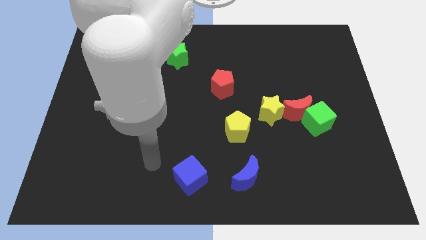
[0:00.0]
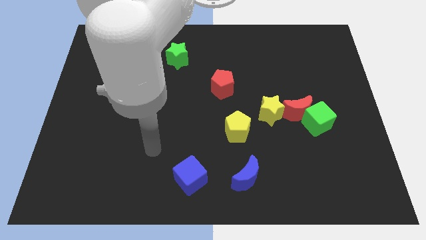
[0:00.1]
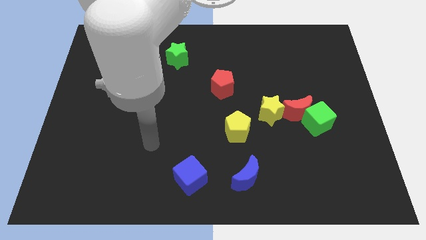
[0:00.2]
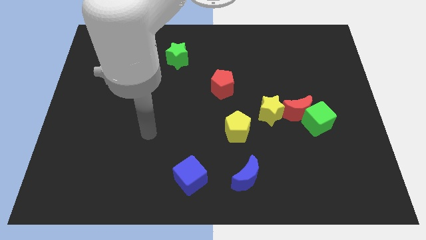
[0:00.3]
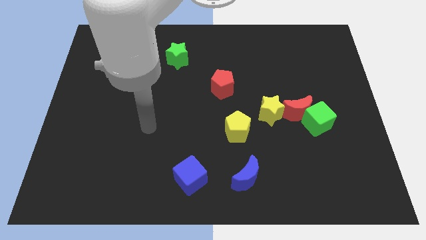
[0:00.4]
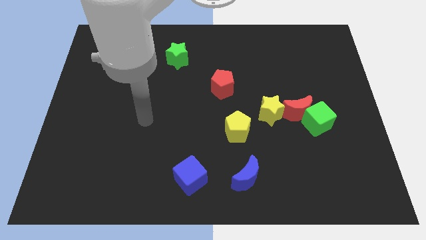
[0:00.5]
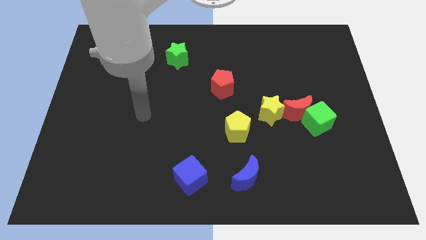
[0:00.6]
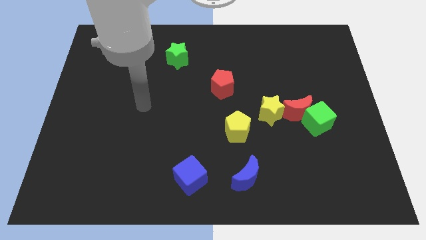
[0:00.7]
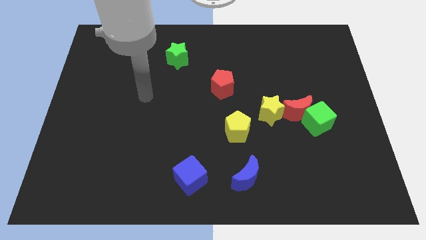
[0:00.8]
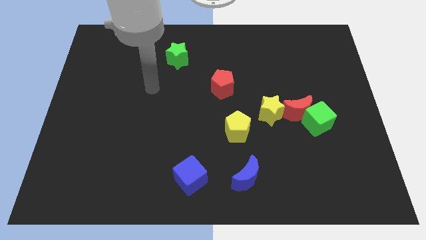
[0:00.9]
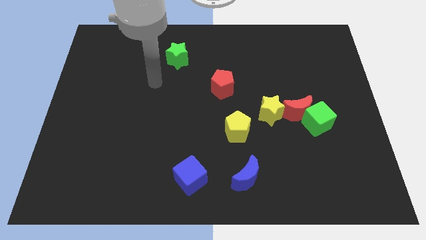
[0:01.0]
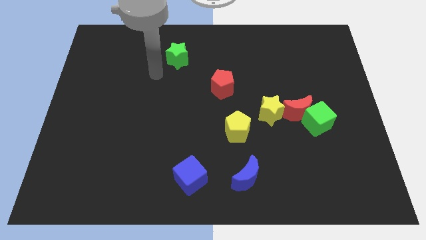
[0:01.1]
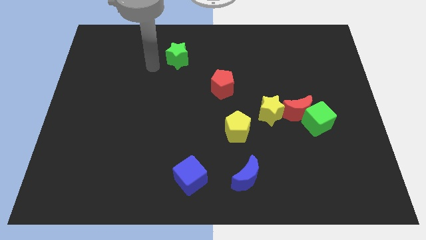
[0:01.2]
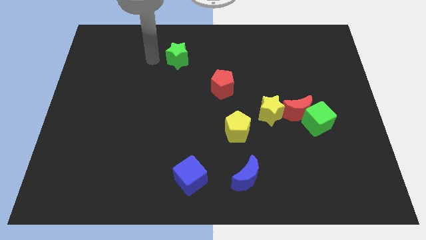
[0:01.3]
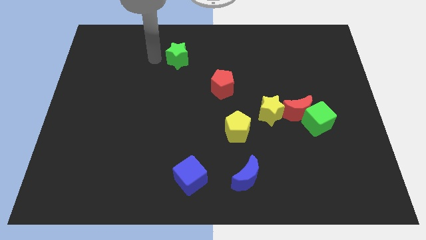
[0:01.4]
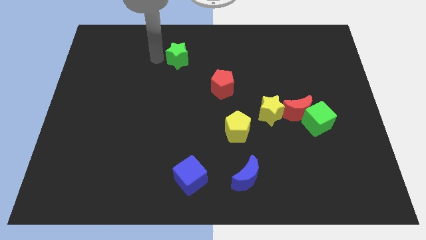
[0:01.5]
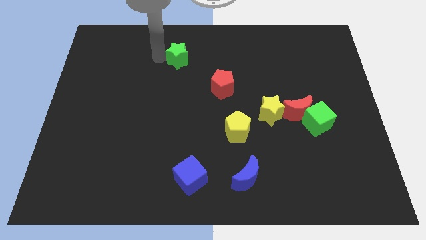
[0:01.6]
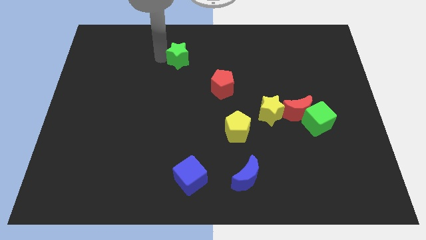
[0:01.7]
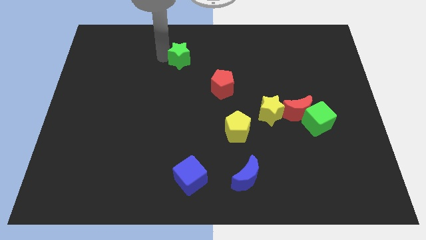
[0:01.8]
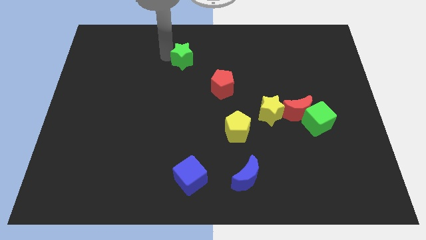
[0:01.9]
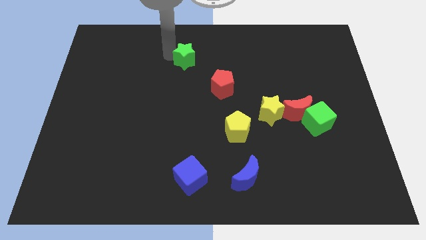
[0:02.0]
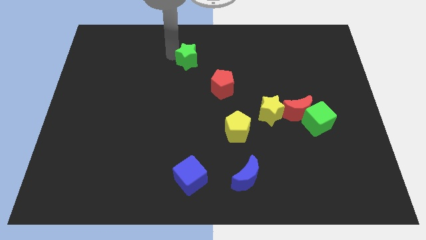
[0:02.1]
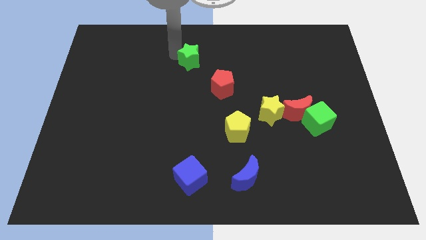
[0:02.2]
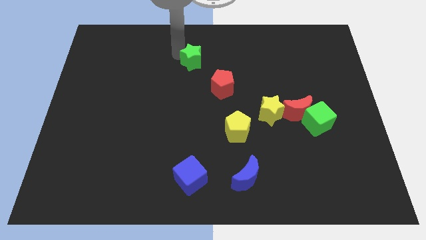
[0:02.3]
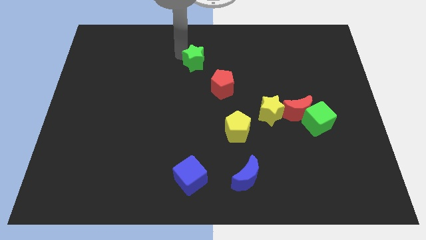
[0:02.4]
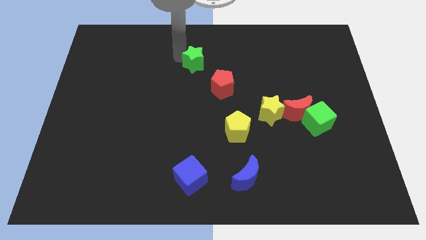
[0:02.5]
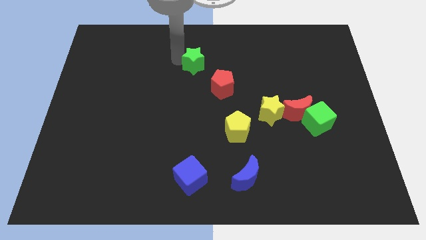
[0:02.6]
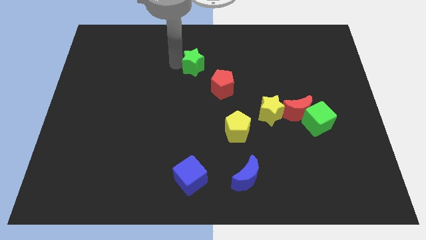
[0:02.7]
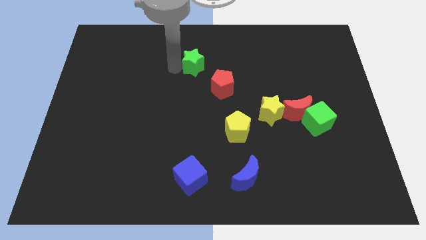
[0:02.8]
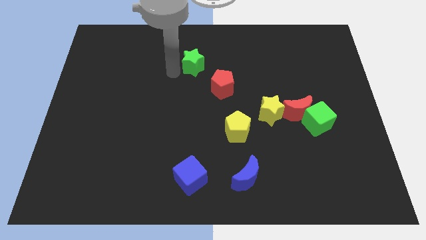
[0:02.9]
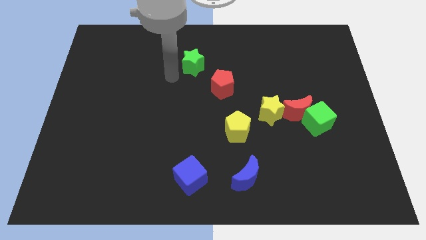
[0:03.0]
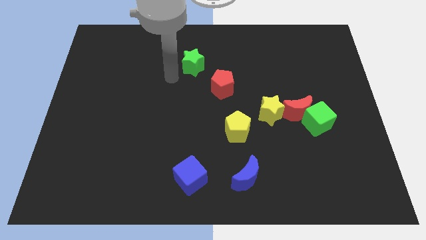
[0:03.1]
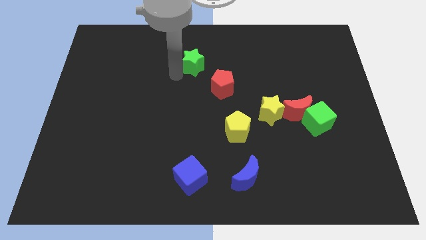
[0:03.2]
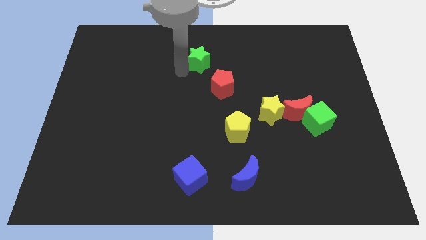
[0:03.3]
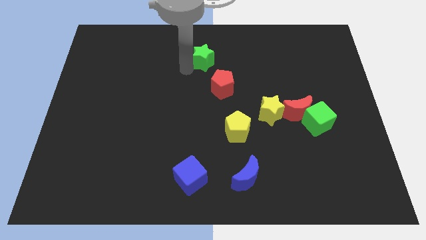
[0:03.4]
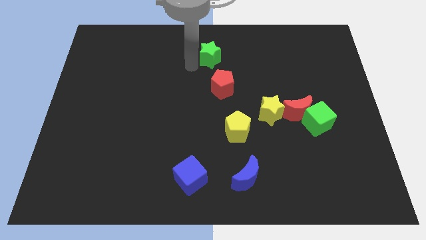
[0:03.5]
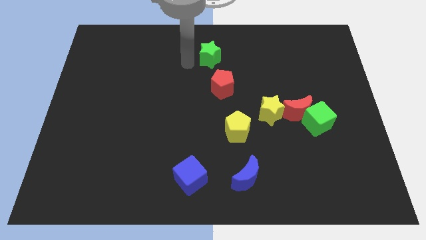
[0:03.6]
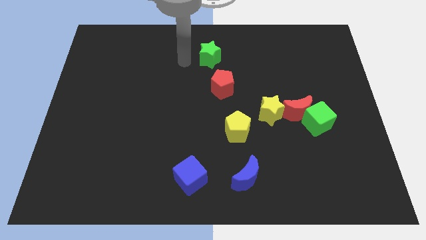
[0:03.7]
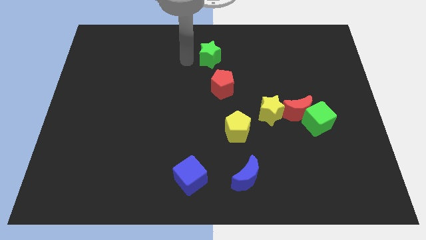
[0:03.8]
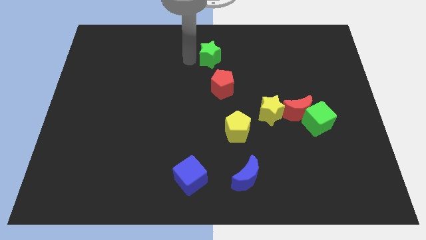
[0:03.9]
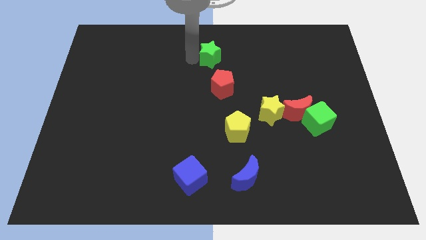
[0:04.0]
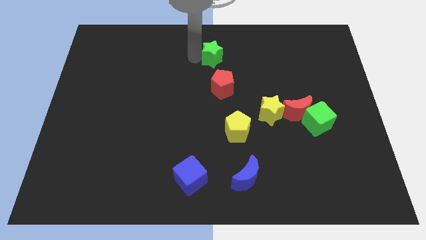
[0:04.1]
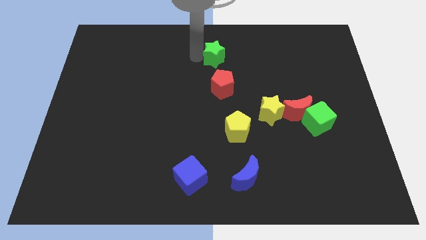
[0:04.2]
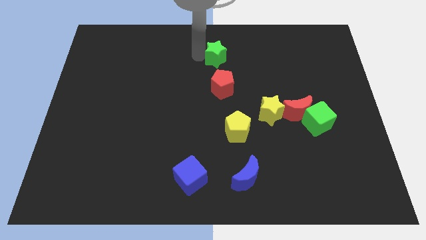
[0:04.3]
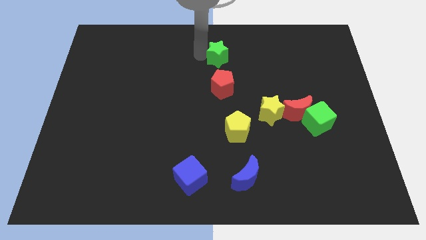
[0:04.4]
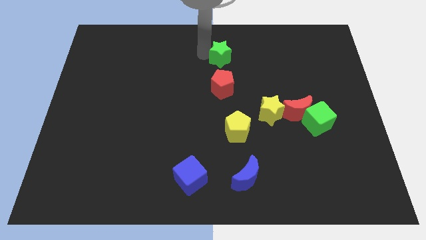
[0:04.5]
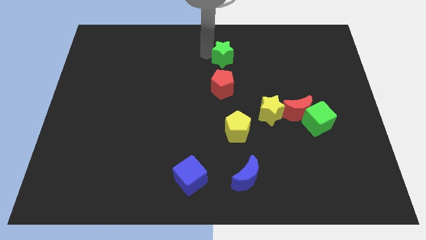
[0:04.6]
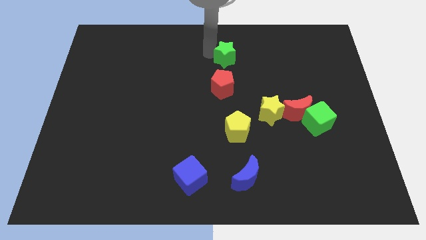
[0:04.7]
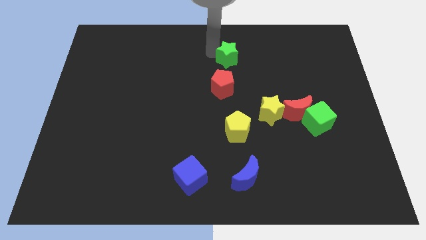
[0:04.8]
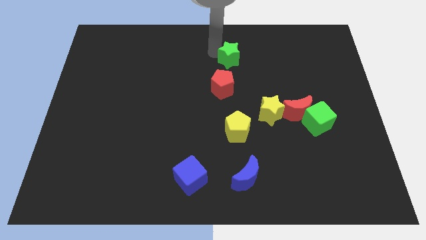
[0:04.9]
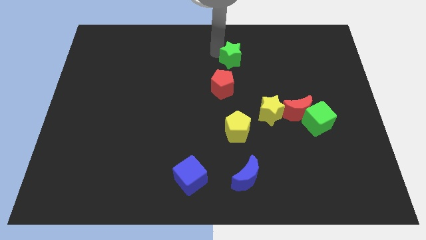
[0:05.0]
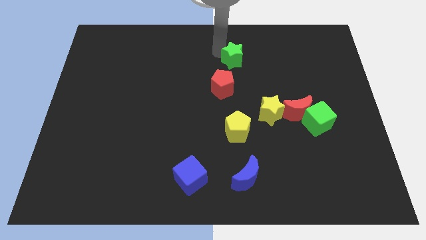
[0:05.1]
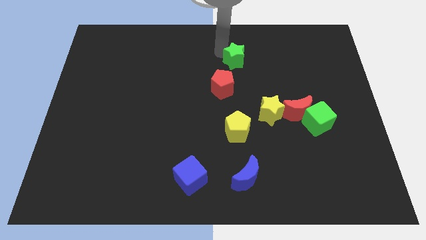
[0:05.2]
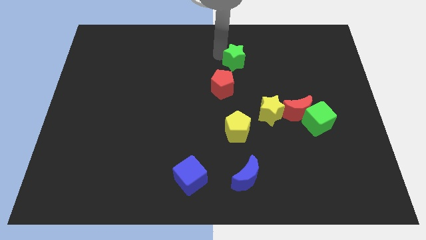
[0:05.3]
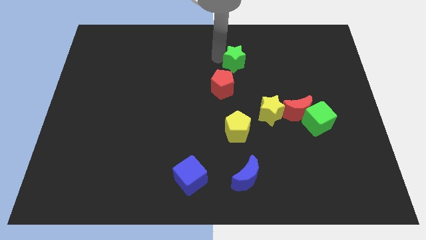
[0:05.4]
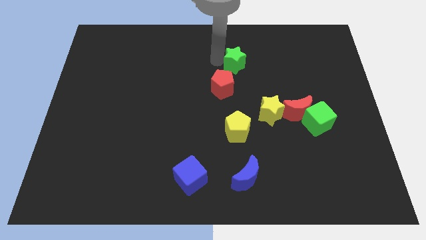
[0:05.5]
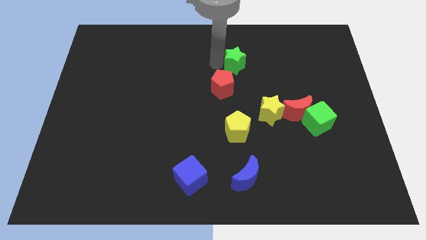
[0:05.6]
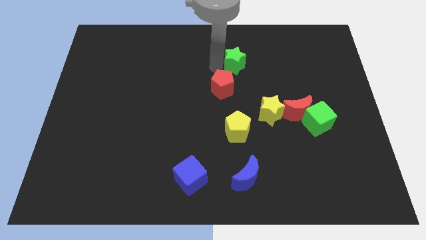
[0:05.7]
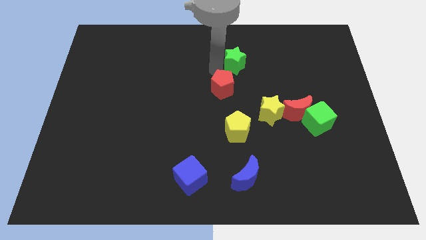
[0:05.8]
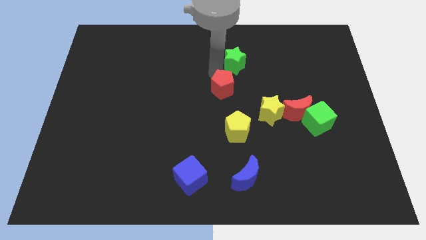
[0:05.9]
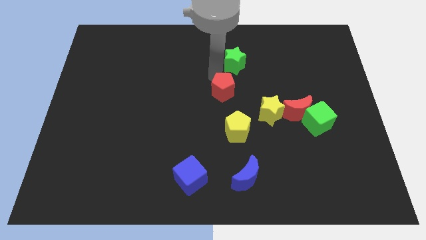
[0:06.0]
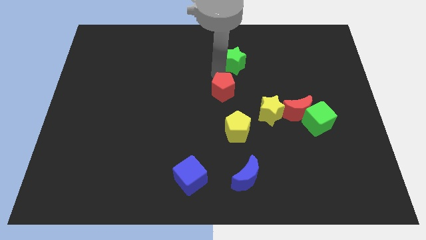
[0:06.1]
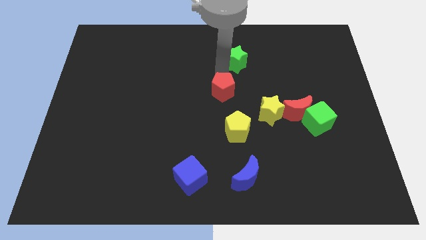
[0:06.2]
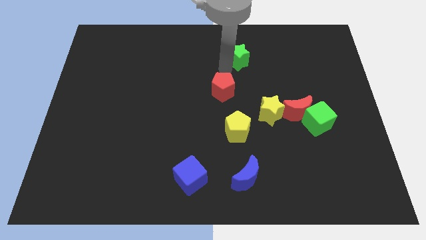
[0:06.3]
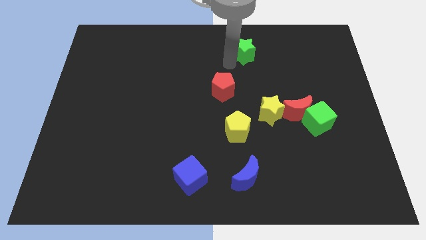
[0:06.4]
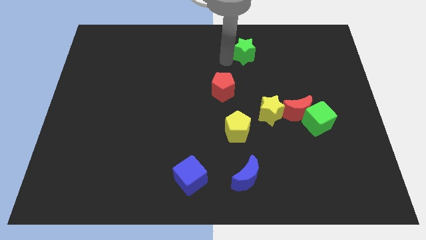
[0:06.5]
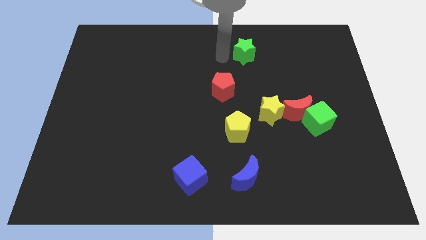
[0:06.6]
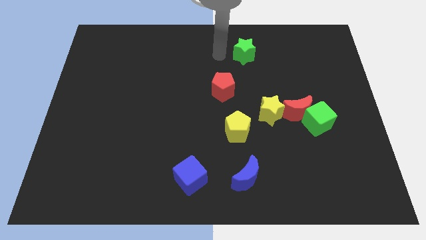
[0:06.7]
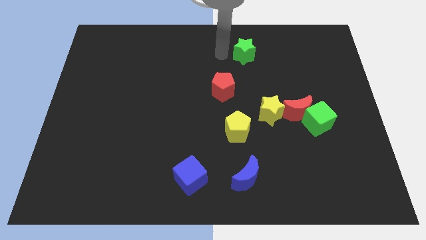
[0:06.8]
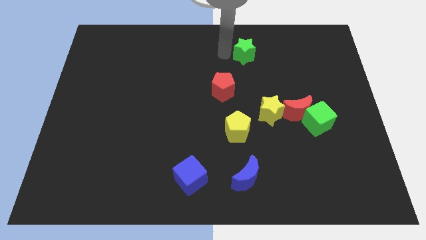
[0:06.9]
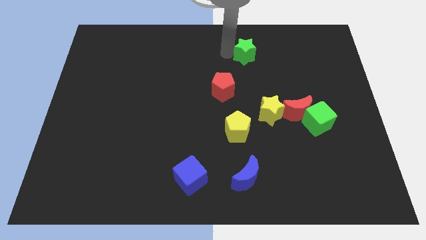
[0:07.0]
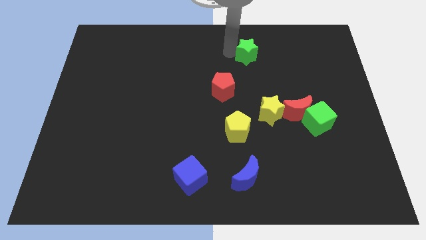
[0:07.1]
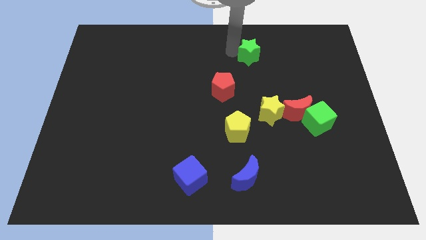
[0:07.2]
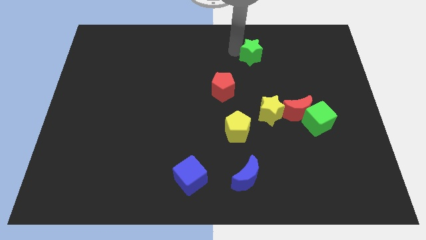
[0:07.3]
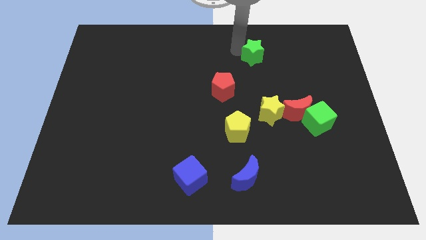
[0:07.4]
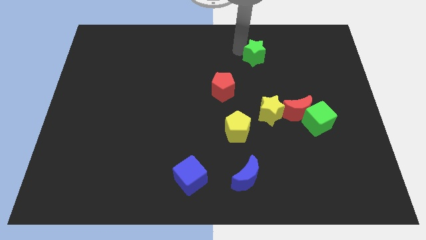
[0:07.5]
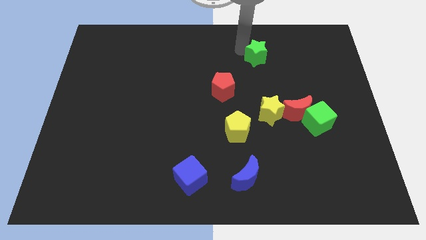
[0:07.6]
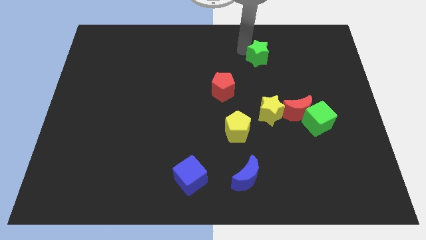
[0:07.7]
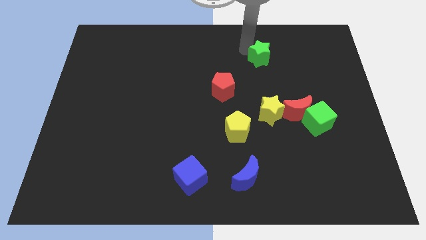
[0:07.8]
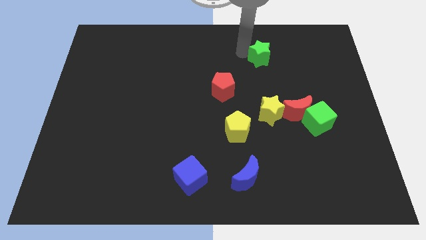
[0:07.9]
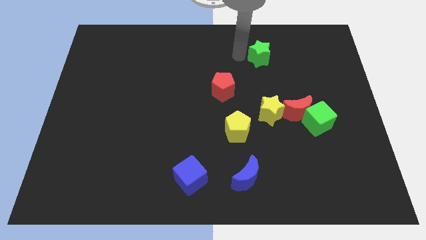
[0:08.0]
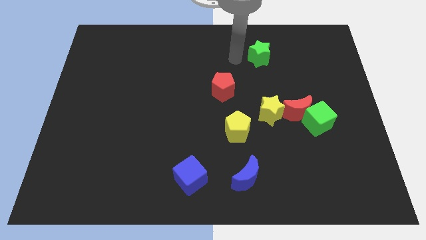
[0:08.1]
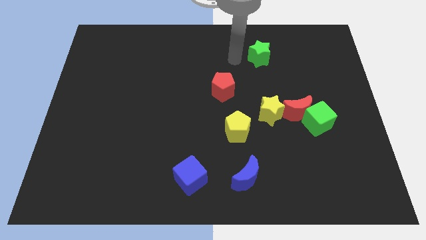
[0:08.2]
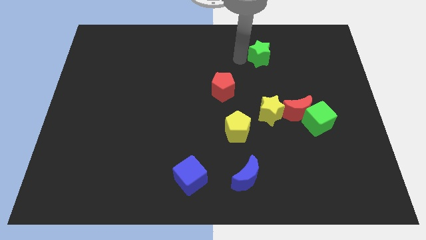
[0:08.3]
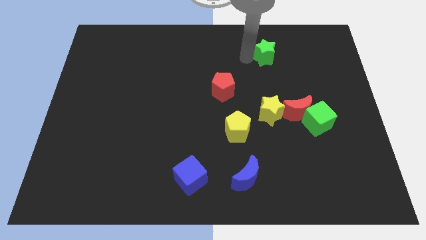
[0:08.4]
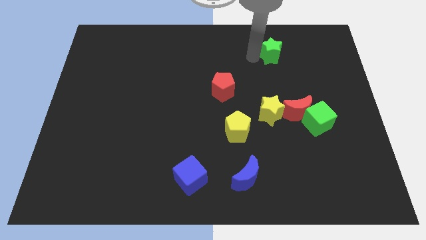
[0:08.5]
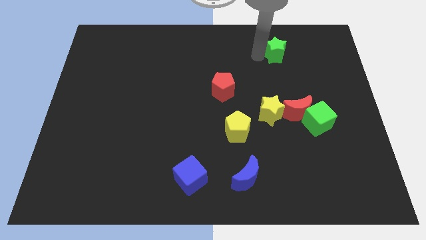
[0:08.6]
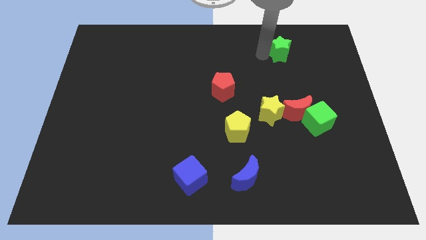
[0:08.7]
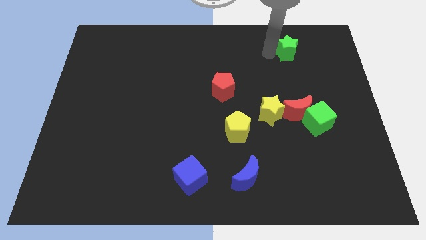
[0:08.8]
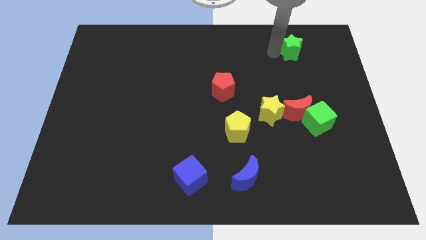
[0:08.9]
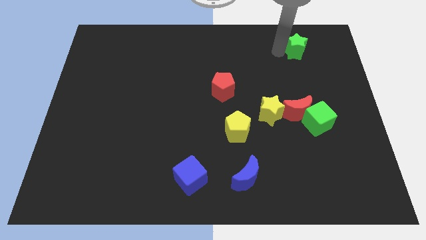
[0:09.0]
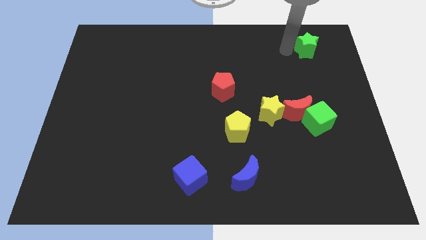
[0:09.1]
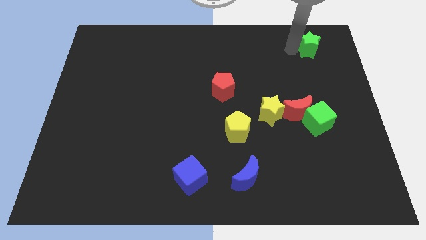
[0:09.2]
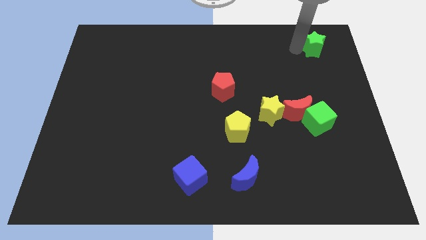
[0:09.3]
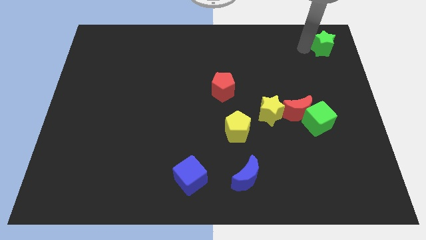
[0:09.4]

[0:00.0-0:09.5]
move the green star to the top right corner
